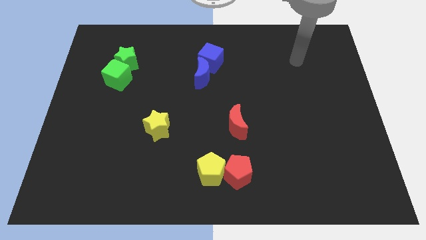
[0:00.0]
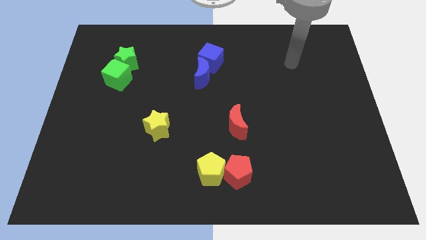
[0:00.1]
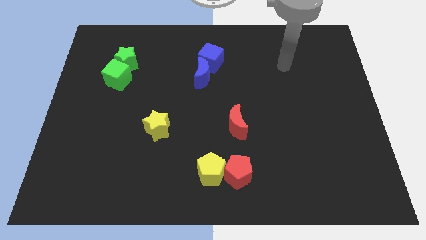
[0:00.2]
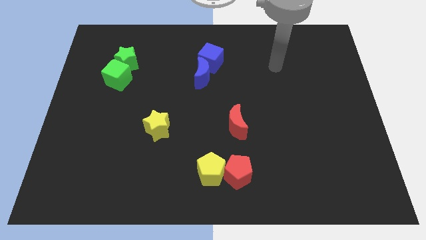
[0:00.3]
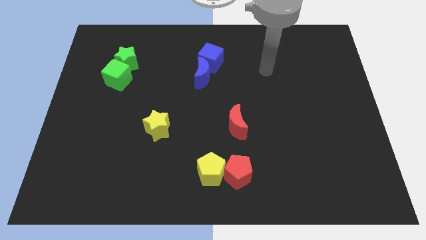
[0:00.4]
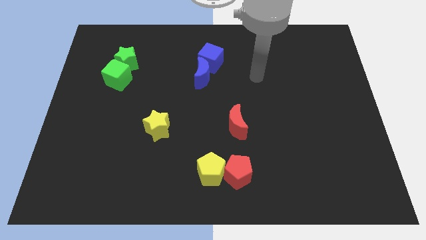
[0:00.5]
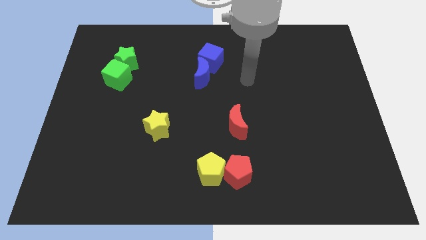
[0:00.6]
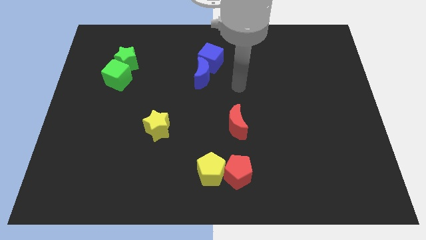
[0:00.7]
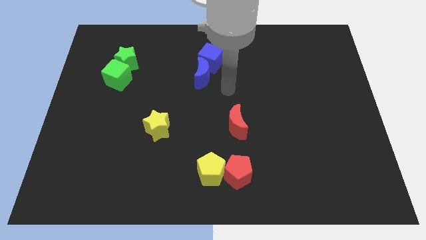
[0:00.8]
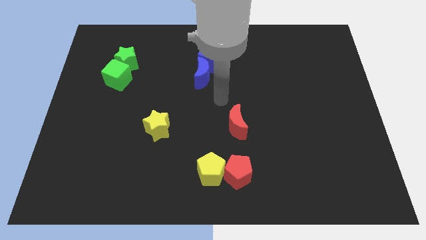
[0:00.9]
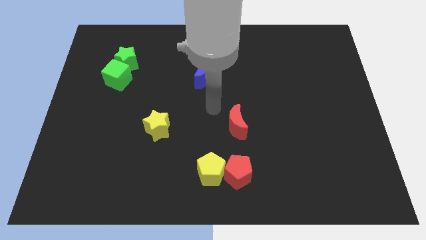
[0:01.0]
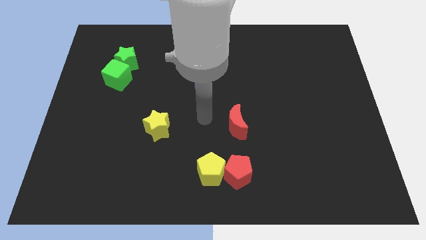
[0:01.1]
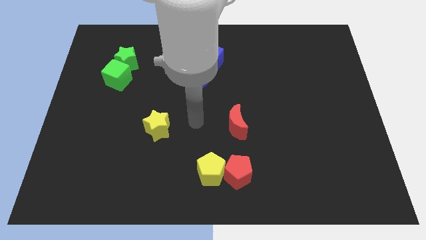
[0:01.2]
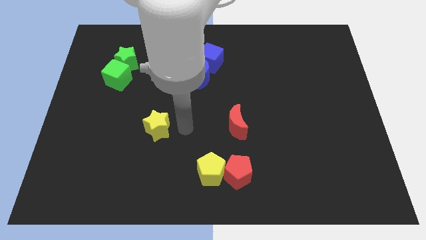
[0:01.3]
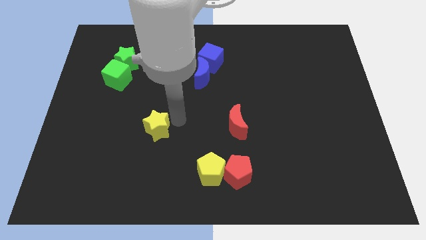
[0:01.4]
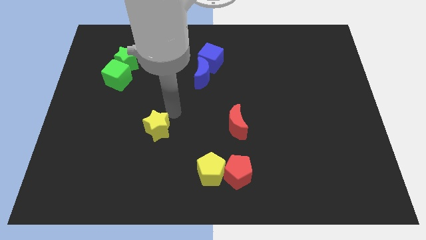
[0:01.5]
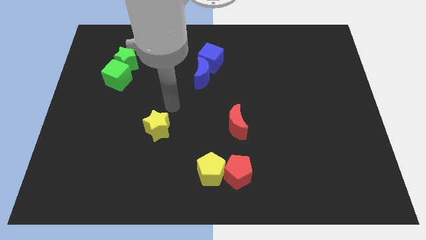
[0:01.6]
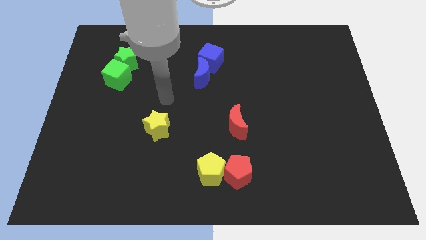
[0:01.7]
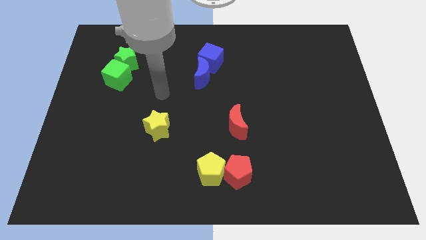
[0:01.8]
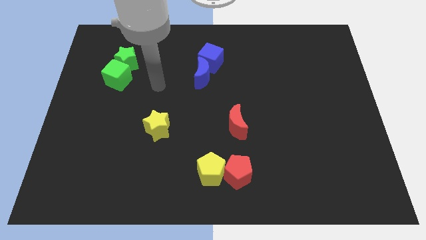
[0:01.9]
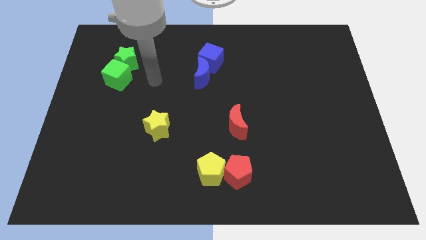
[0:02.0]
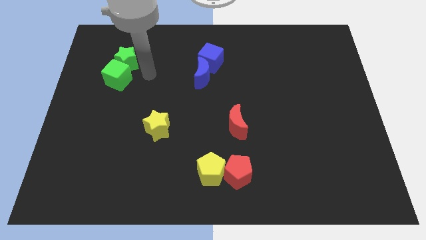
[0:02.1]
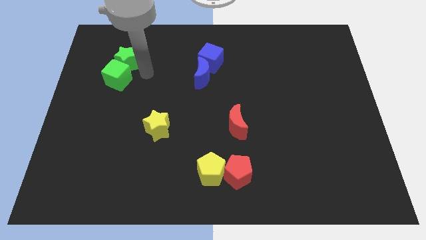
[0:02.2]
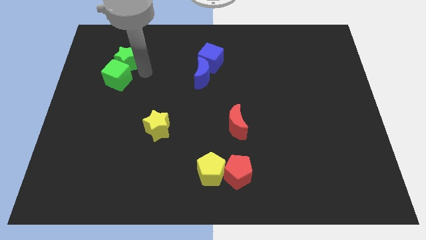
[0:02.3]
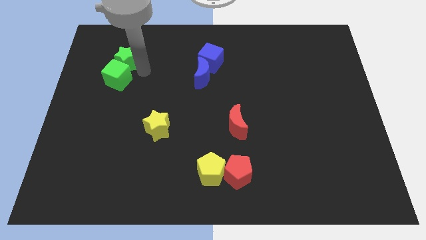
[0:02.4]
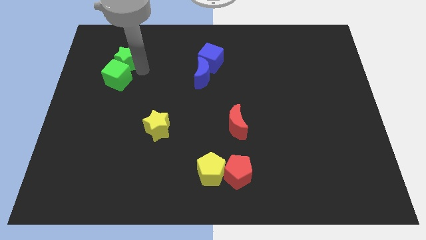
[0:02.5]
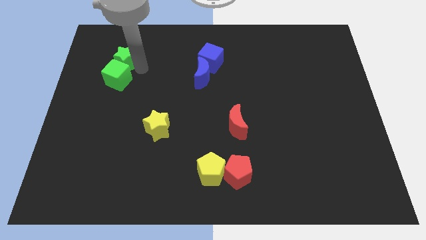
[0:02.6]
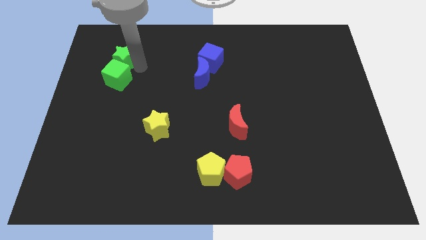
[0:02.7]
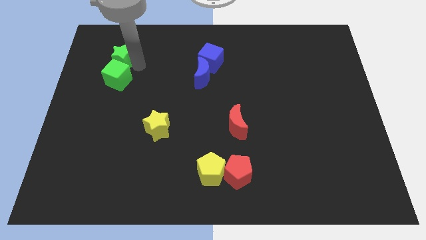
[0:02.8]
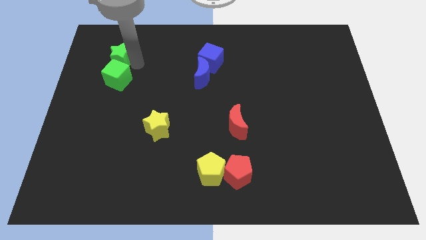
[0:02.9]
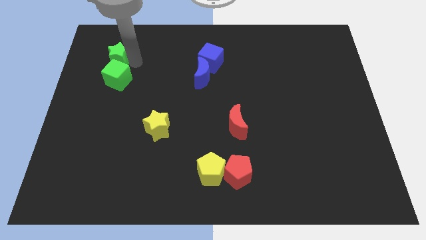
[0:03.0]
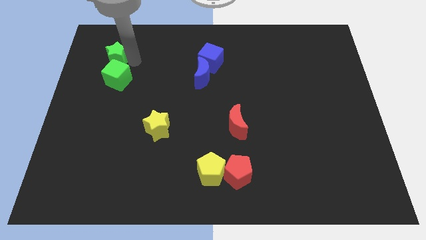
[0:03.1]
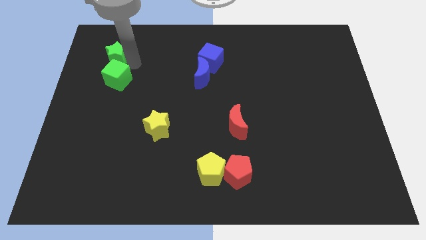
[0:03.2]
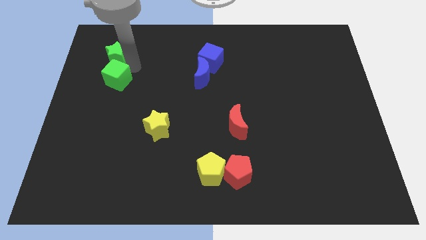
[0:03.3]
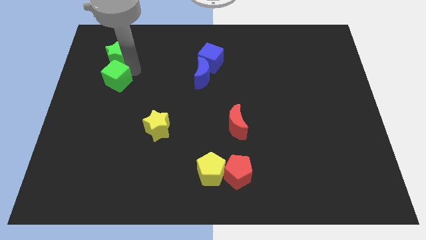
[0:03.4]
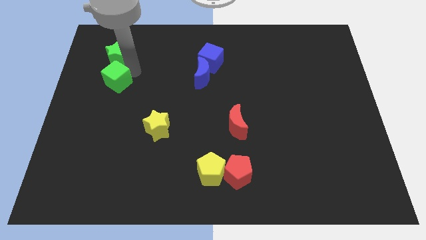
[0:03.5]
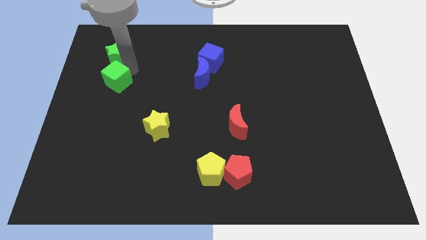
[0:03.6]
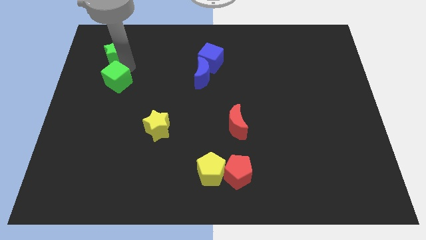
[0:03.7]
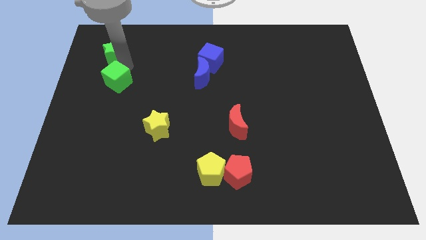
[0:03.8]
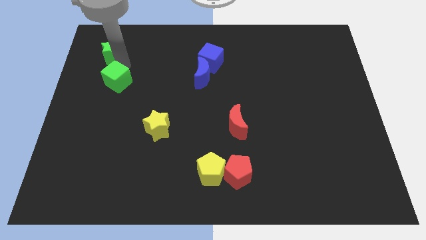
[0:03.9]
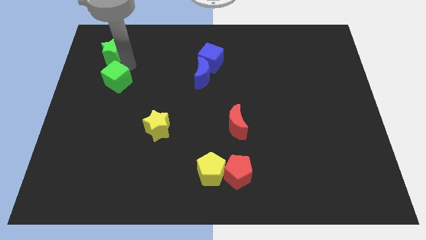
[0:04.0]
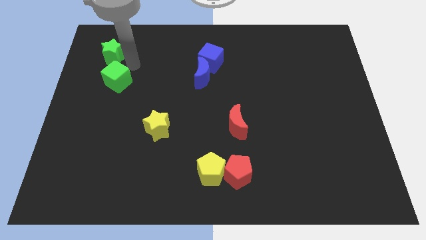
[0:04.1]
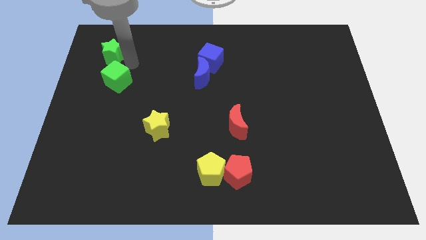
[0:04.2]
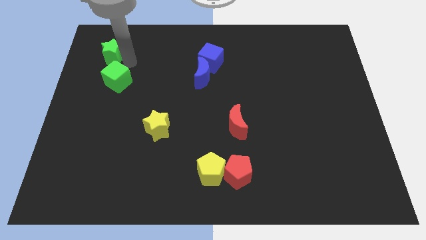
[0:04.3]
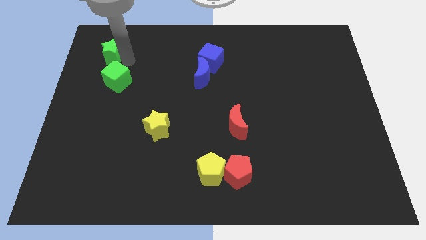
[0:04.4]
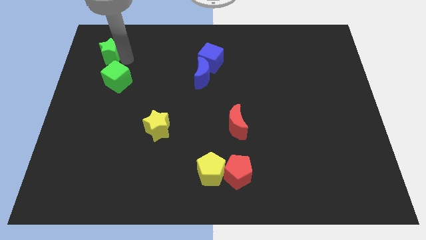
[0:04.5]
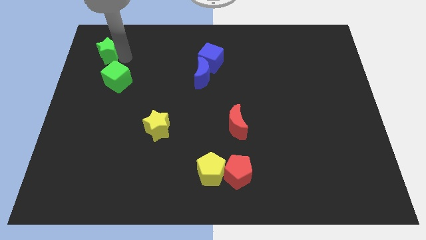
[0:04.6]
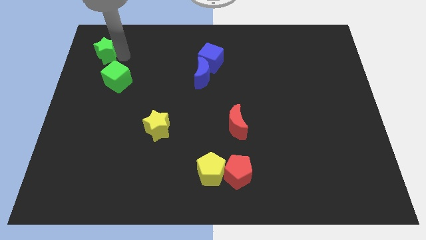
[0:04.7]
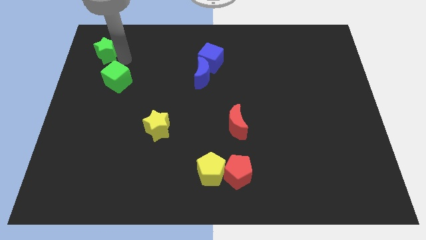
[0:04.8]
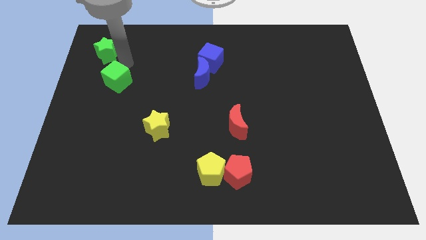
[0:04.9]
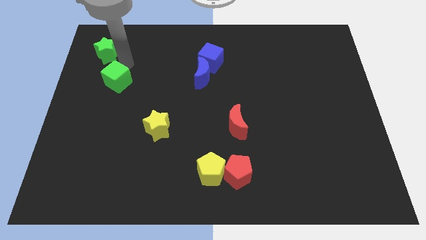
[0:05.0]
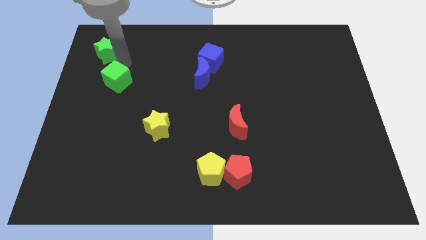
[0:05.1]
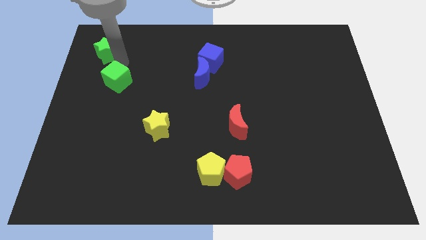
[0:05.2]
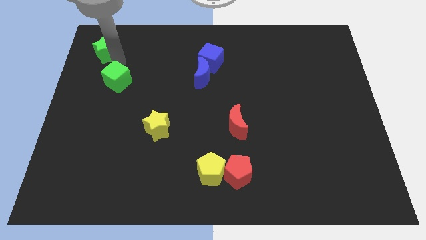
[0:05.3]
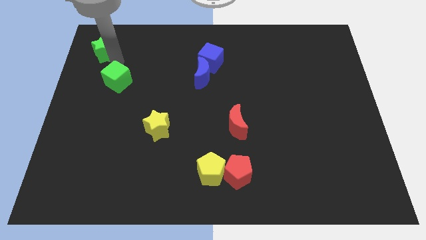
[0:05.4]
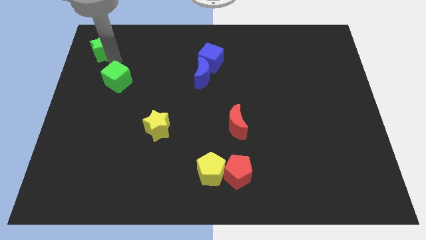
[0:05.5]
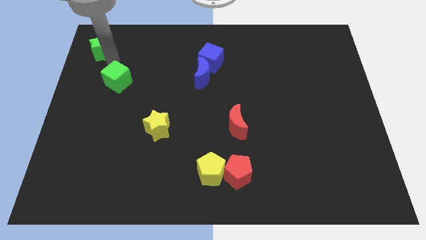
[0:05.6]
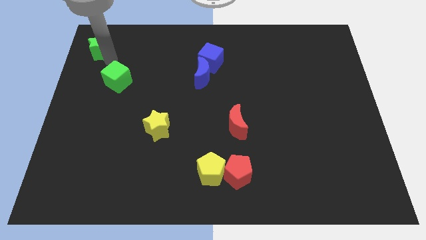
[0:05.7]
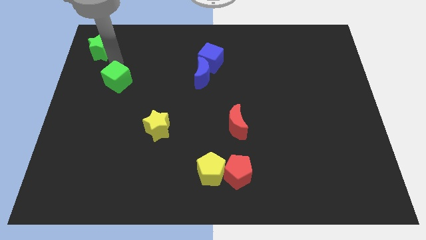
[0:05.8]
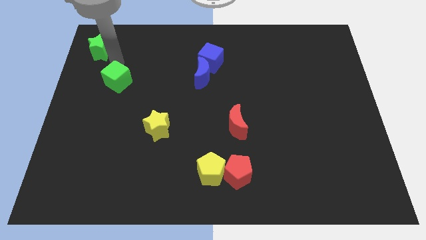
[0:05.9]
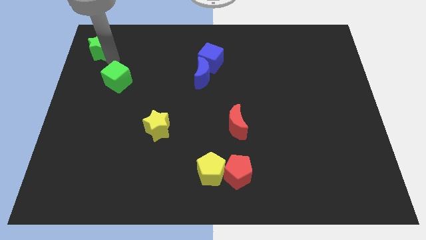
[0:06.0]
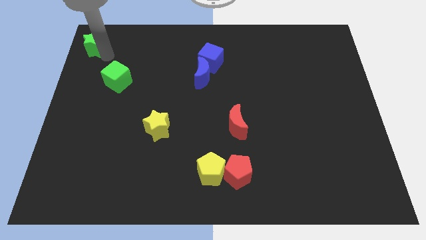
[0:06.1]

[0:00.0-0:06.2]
move the green star to the top left of the board

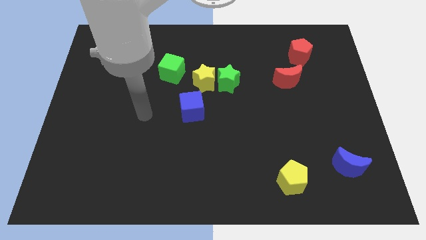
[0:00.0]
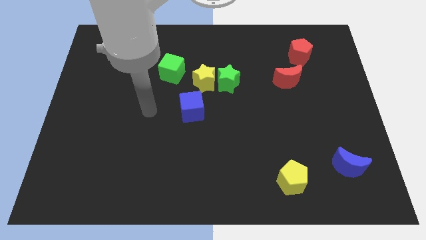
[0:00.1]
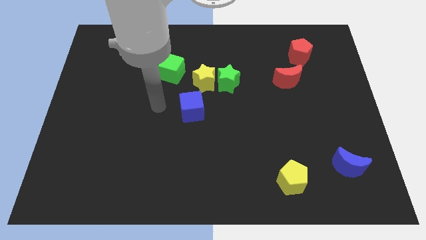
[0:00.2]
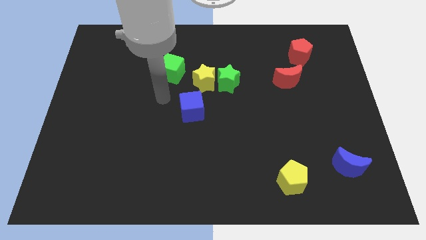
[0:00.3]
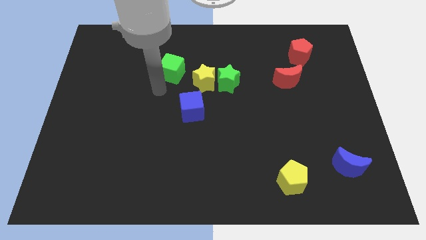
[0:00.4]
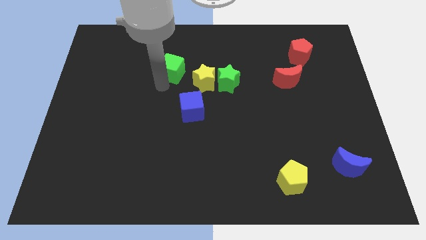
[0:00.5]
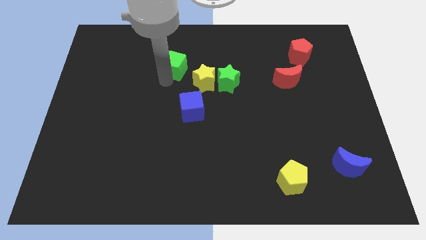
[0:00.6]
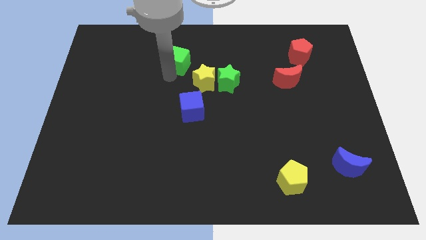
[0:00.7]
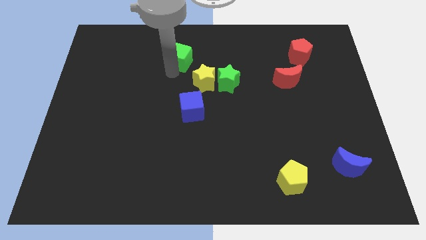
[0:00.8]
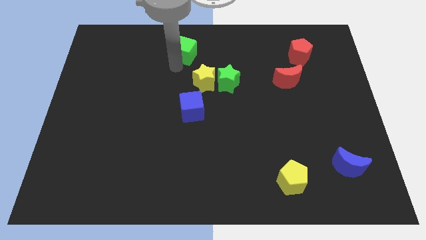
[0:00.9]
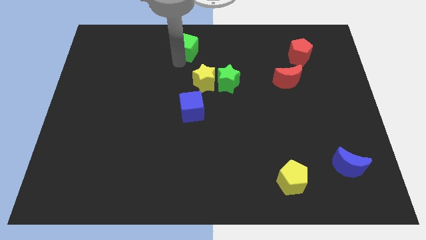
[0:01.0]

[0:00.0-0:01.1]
move the green cube to the top
